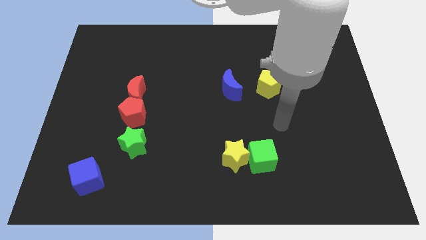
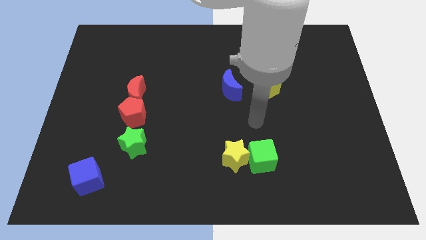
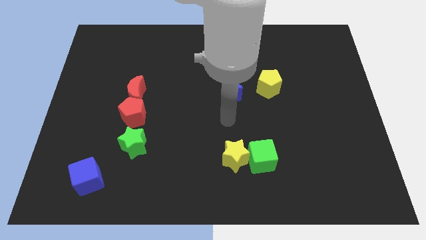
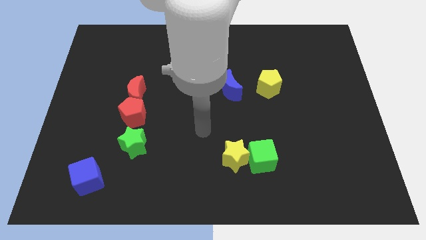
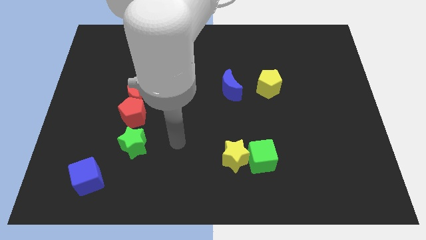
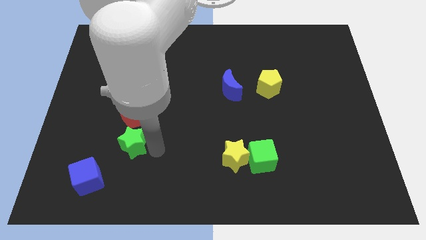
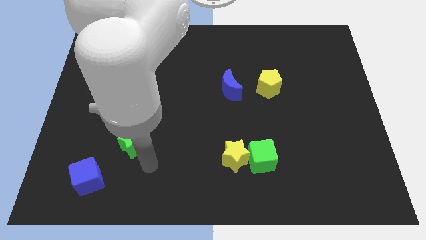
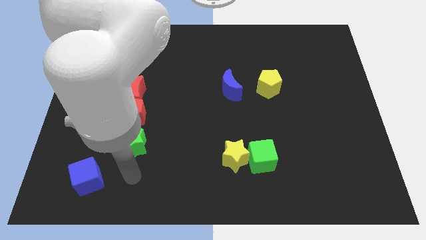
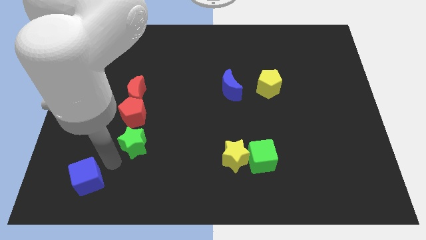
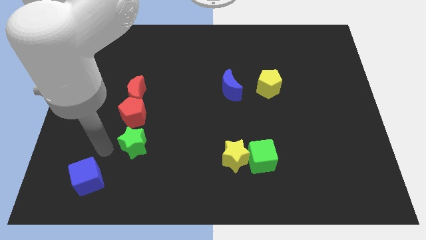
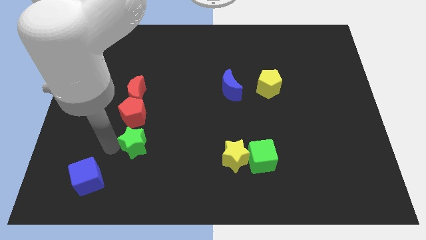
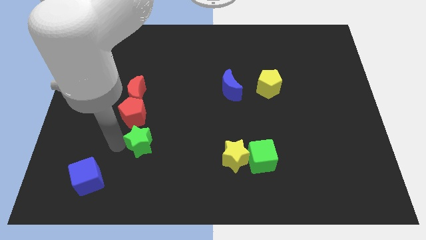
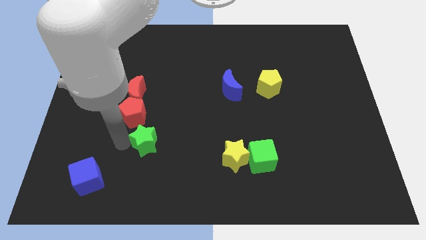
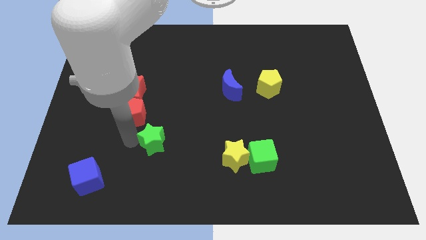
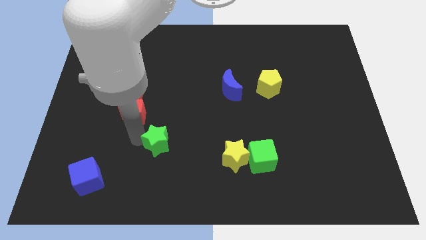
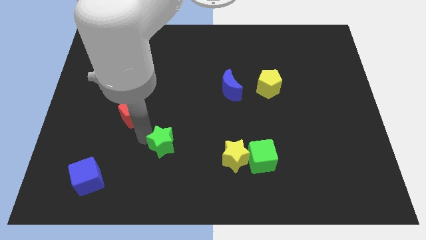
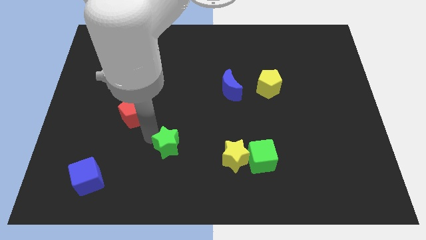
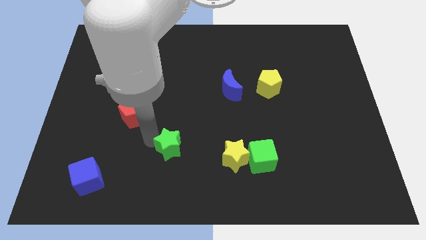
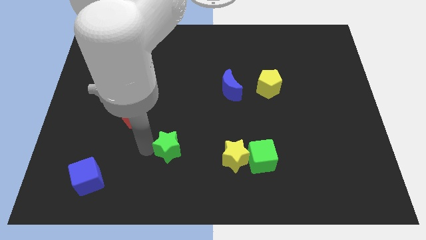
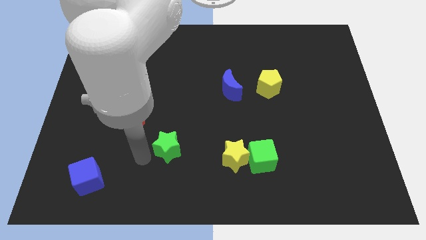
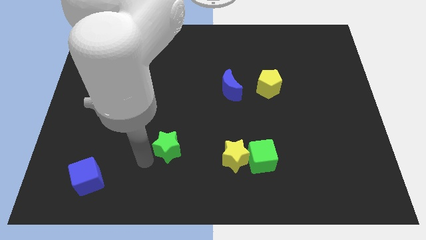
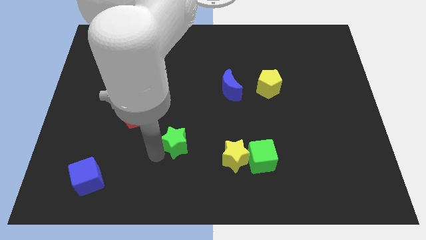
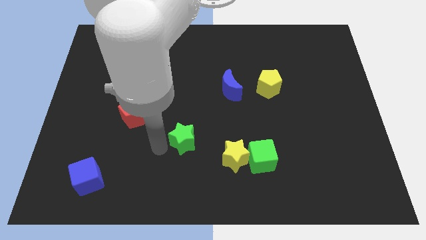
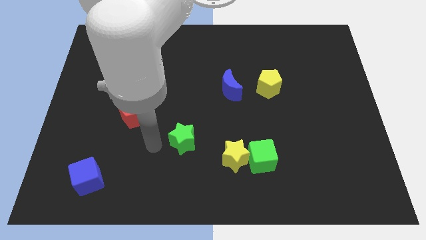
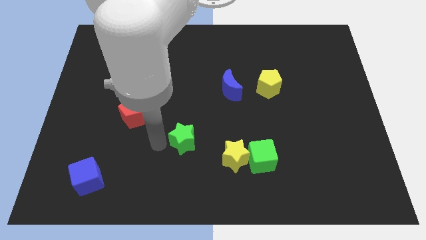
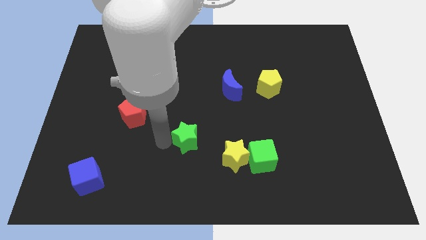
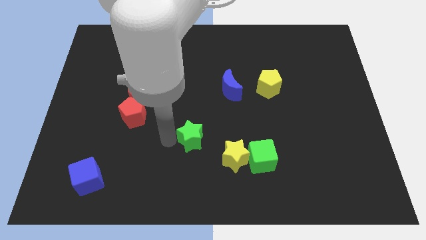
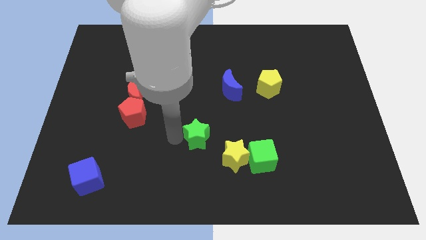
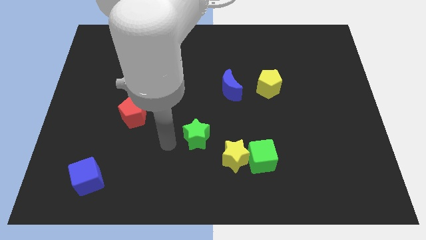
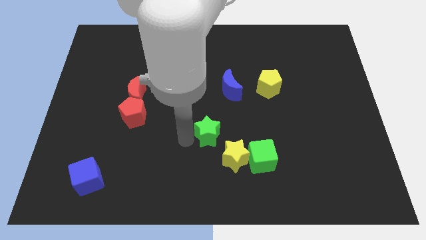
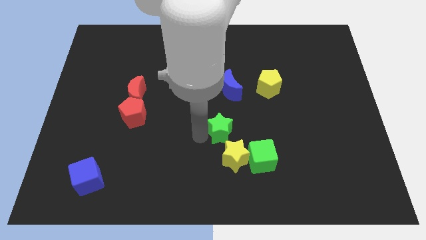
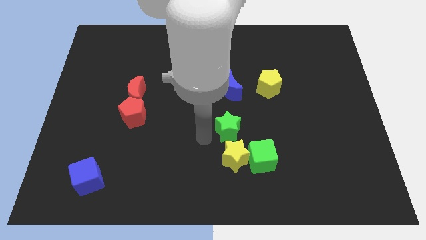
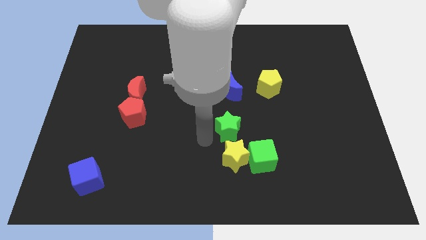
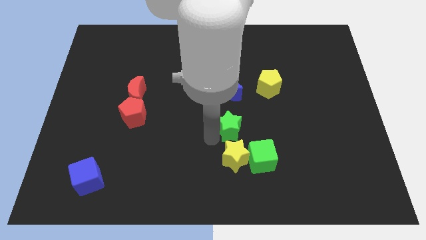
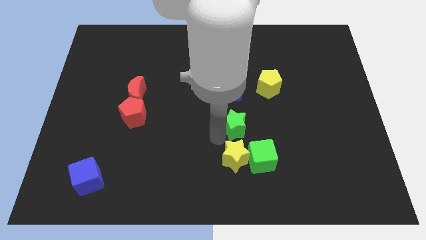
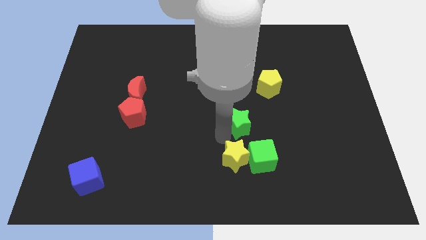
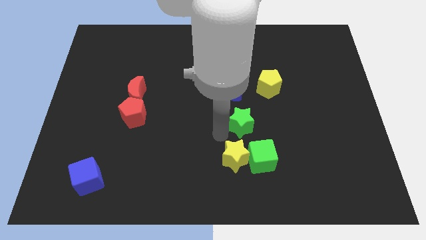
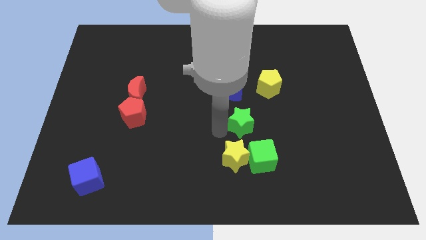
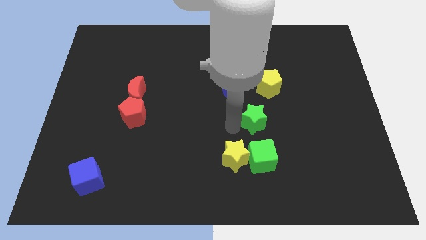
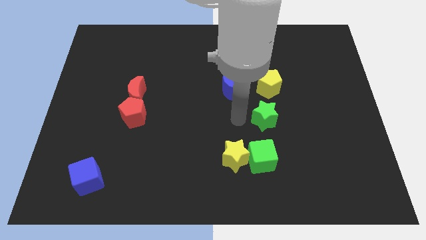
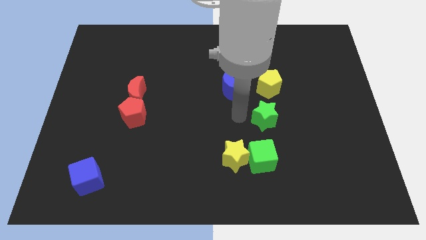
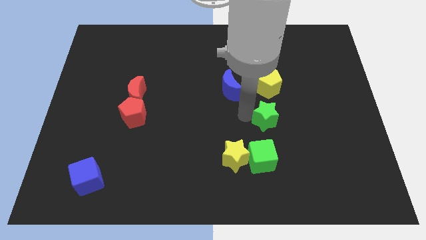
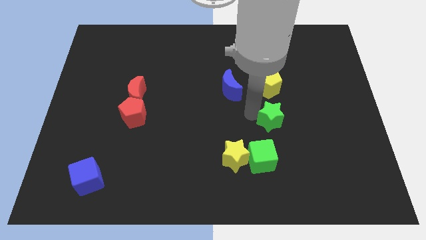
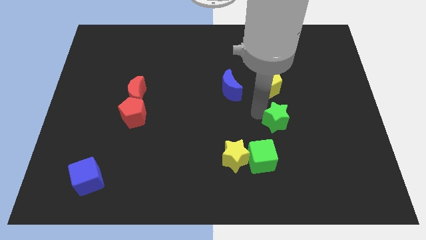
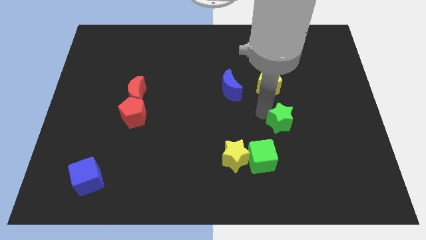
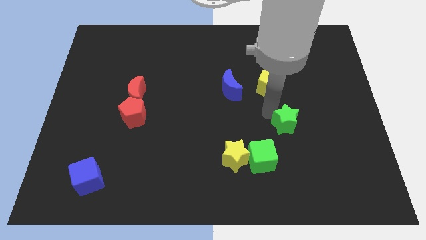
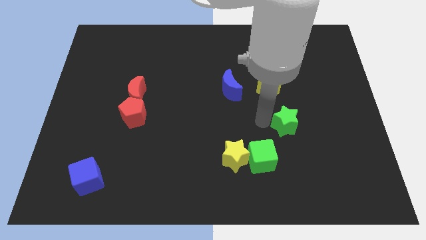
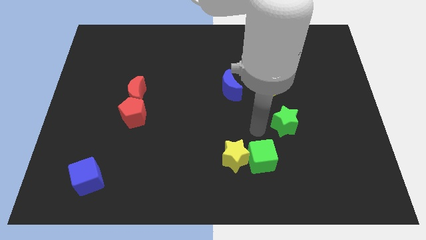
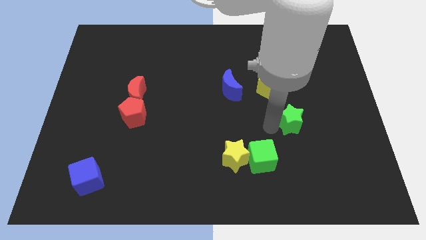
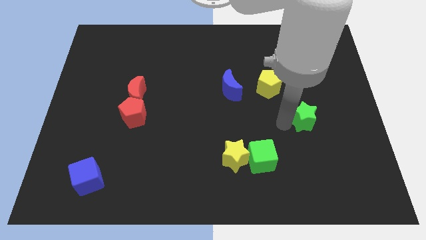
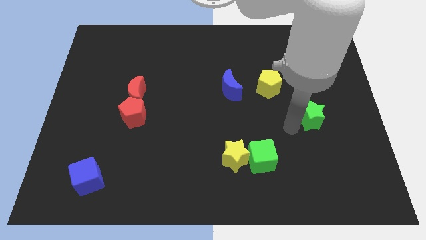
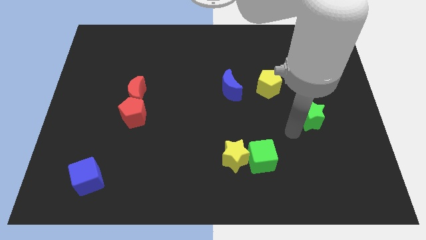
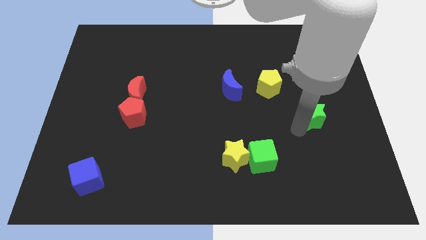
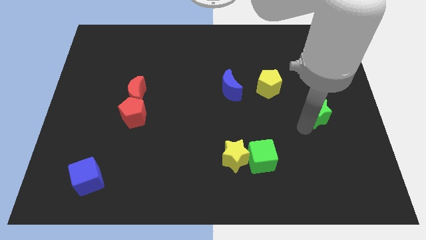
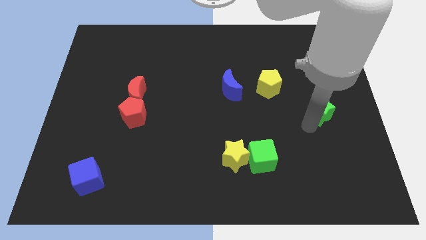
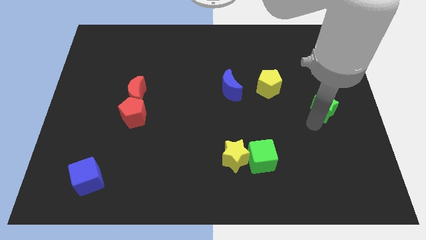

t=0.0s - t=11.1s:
push the green star to the center right
